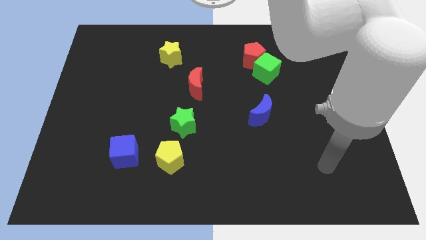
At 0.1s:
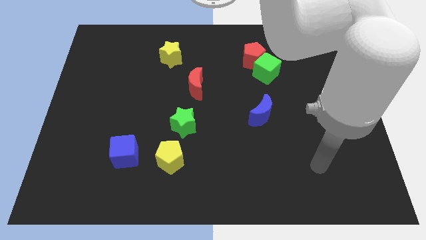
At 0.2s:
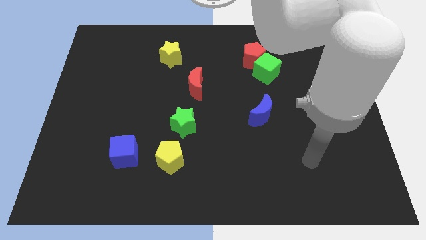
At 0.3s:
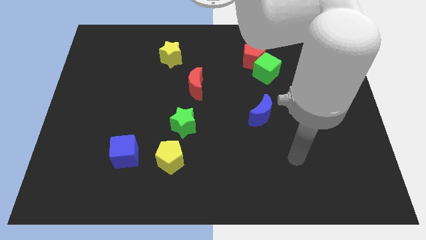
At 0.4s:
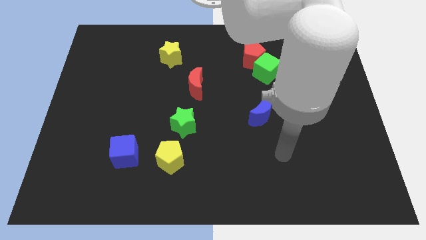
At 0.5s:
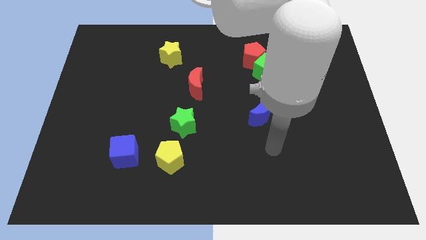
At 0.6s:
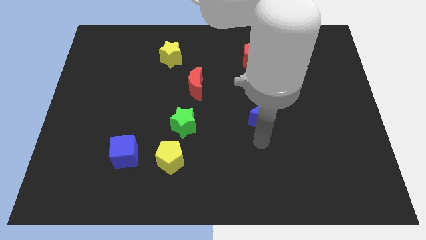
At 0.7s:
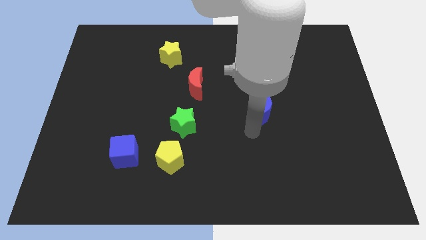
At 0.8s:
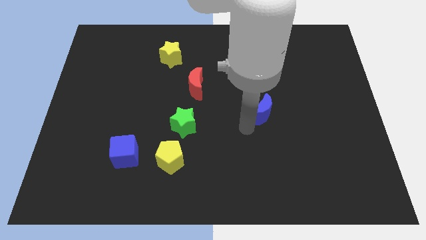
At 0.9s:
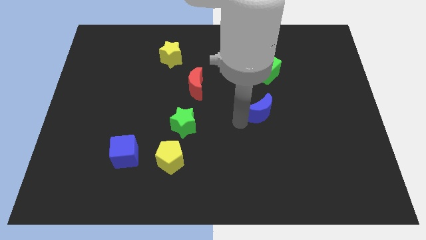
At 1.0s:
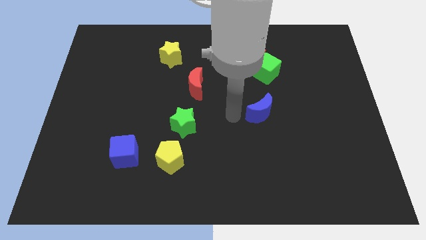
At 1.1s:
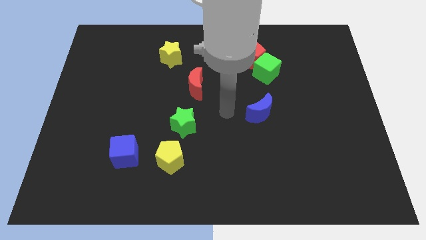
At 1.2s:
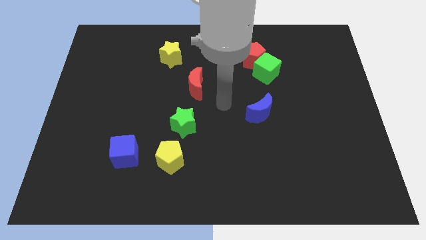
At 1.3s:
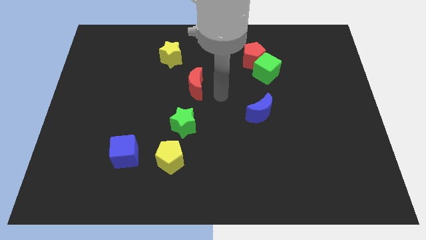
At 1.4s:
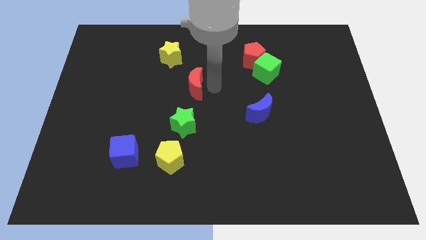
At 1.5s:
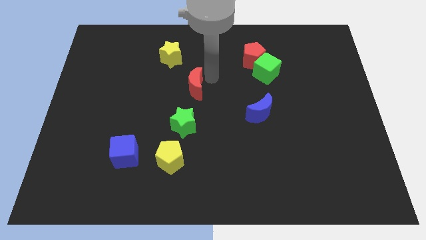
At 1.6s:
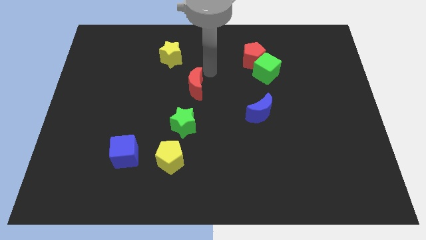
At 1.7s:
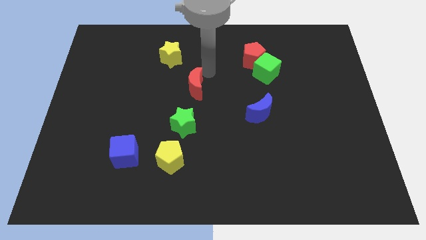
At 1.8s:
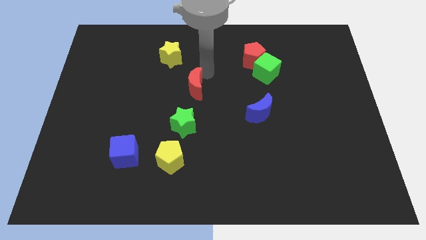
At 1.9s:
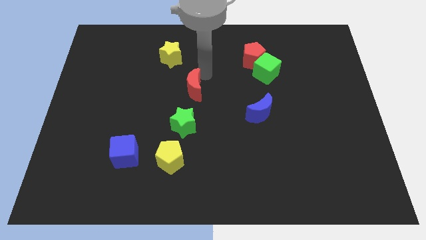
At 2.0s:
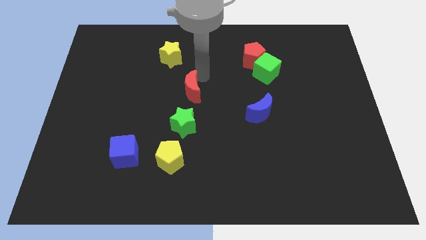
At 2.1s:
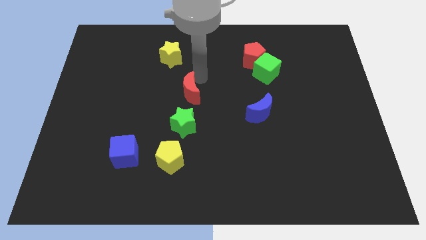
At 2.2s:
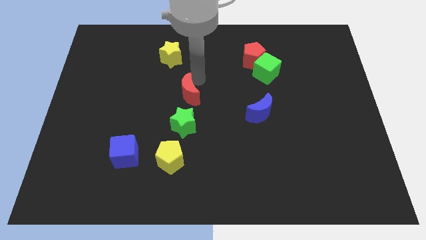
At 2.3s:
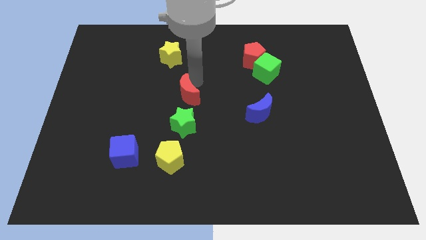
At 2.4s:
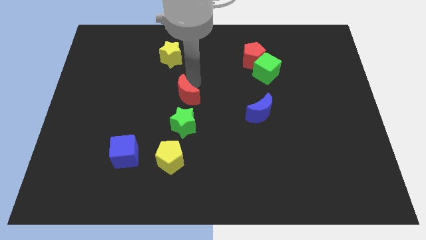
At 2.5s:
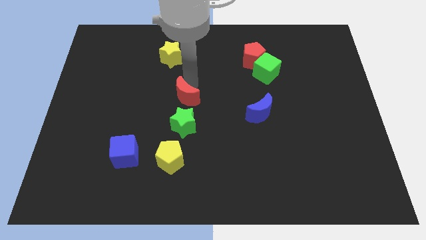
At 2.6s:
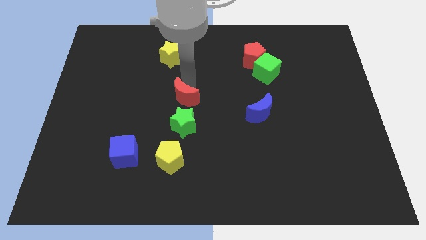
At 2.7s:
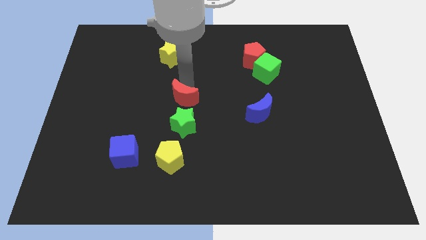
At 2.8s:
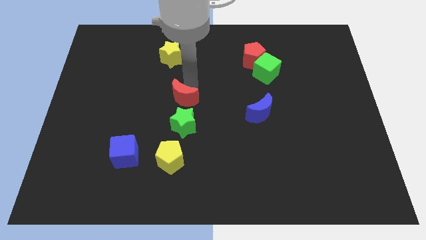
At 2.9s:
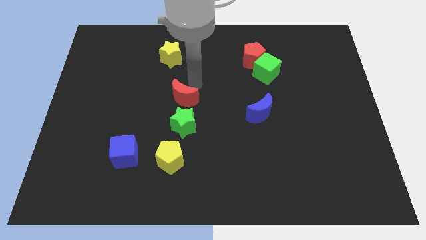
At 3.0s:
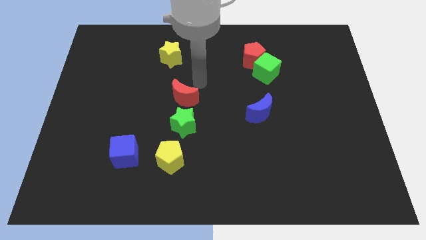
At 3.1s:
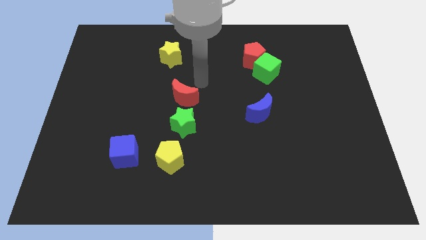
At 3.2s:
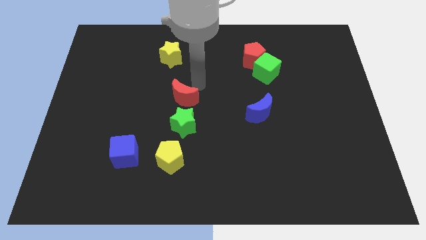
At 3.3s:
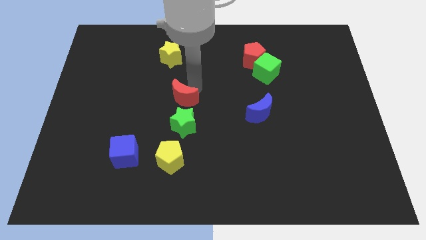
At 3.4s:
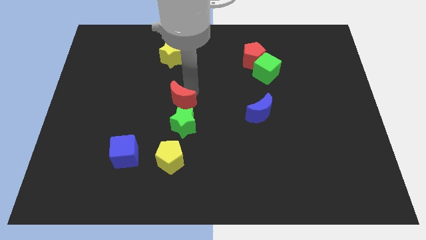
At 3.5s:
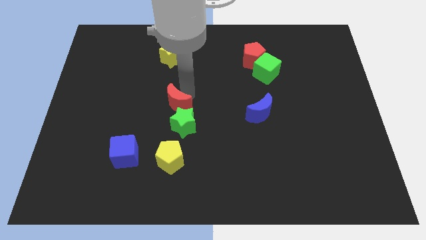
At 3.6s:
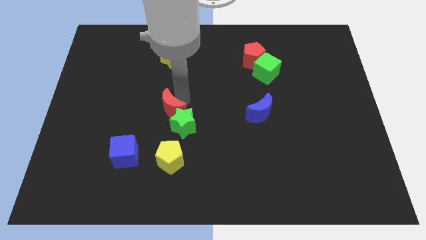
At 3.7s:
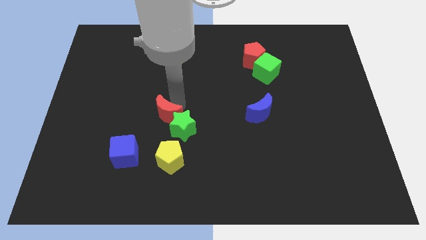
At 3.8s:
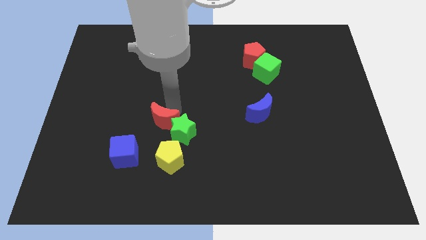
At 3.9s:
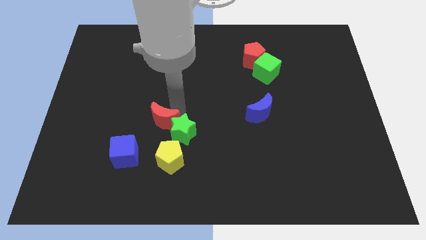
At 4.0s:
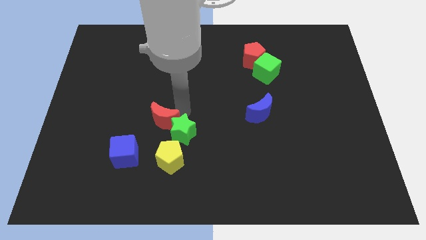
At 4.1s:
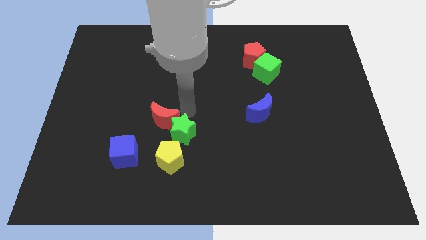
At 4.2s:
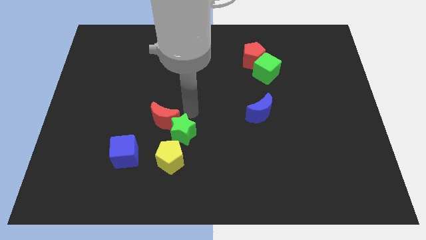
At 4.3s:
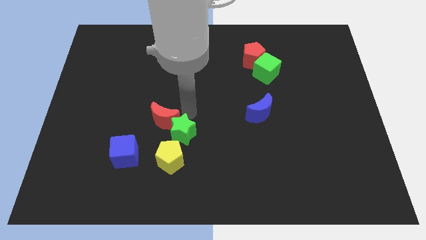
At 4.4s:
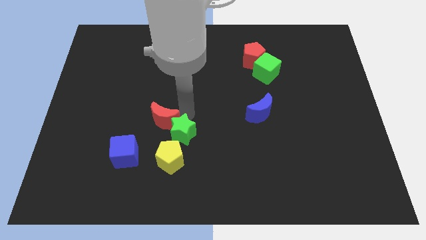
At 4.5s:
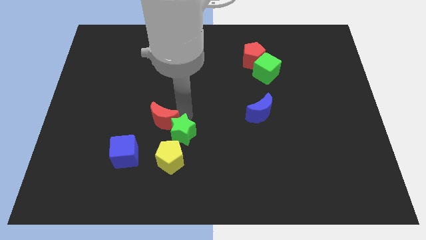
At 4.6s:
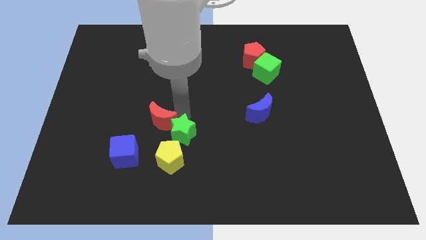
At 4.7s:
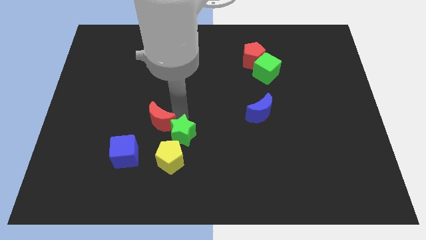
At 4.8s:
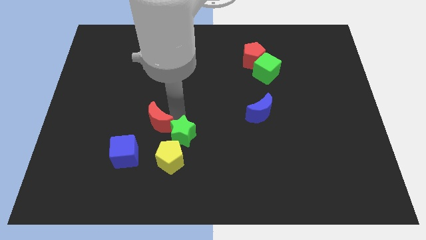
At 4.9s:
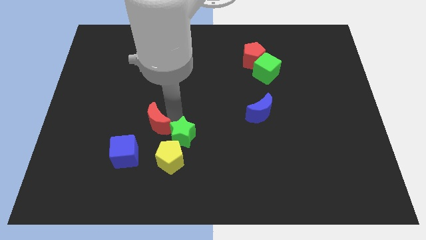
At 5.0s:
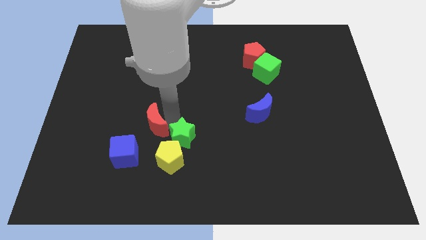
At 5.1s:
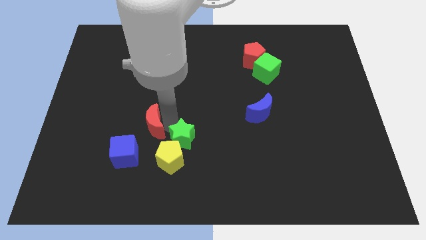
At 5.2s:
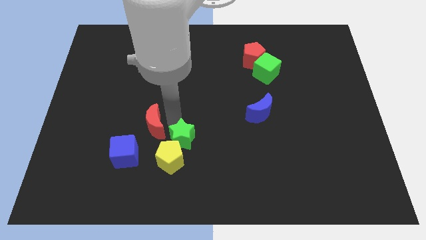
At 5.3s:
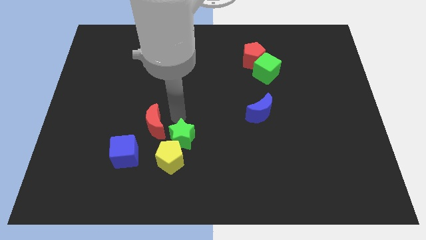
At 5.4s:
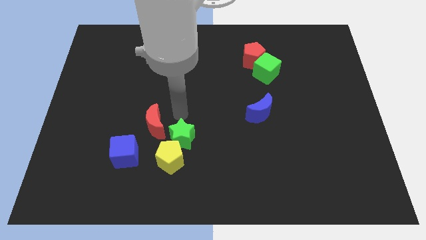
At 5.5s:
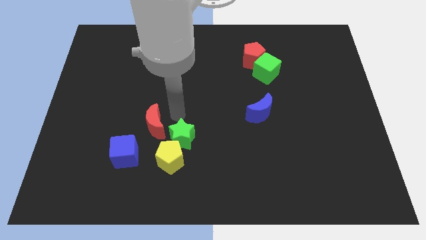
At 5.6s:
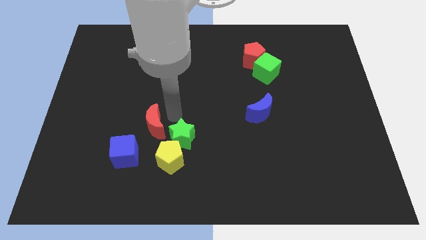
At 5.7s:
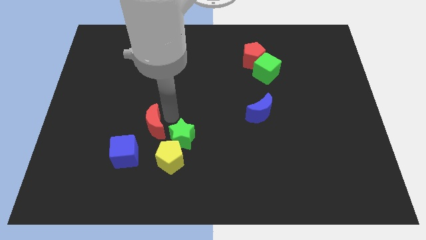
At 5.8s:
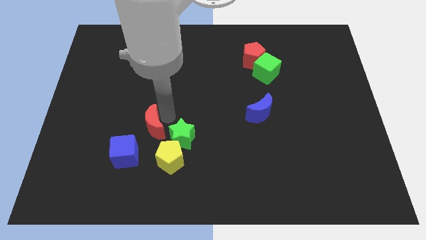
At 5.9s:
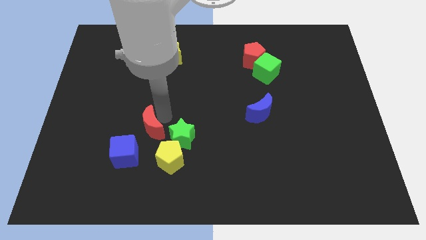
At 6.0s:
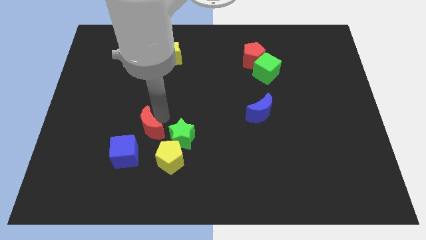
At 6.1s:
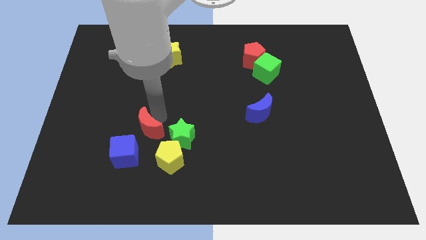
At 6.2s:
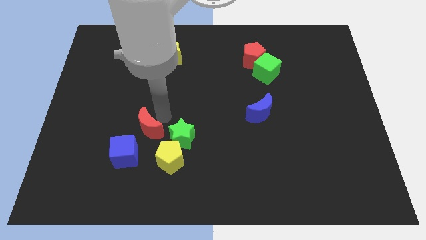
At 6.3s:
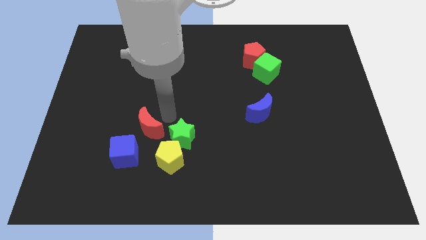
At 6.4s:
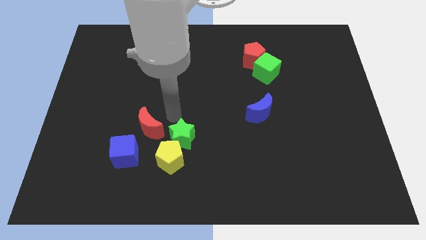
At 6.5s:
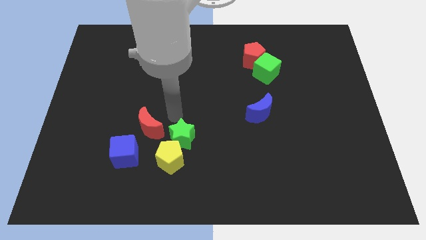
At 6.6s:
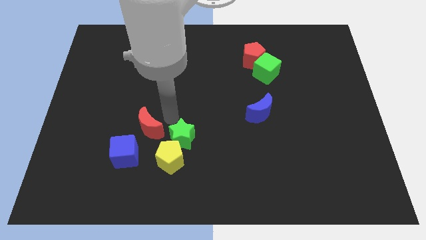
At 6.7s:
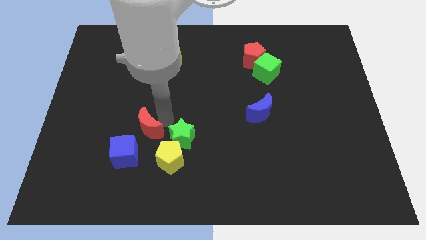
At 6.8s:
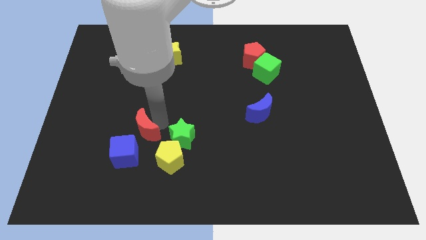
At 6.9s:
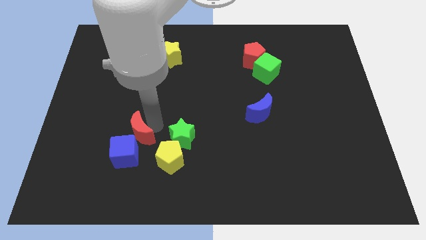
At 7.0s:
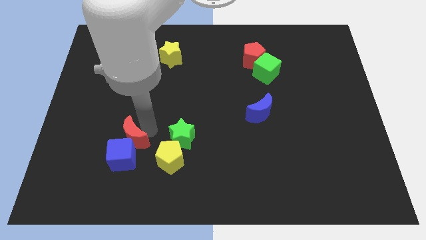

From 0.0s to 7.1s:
slide the red moon downwards and left

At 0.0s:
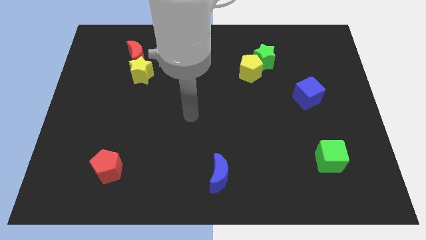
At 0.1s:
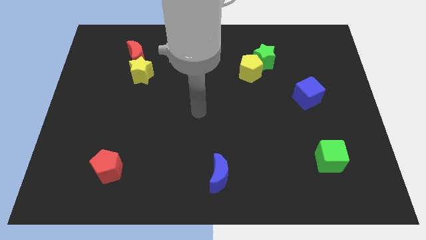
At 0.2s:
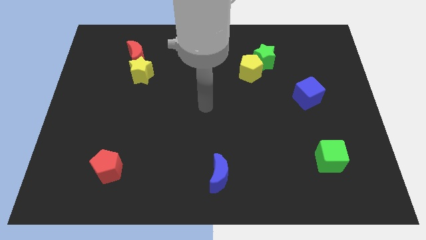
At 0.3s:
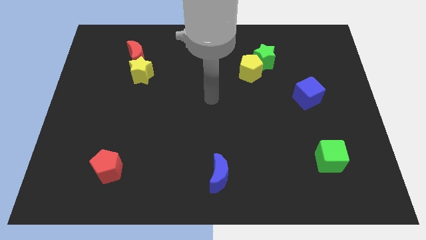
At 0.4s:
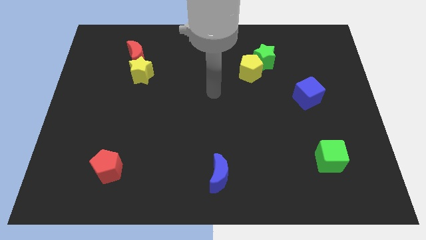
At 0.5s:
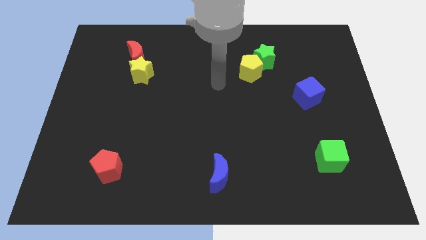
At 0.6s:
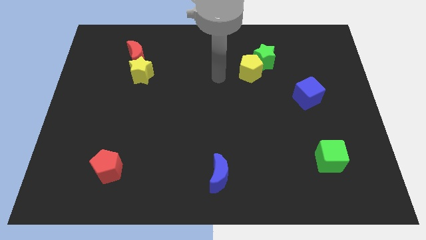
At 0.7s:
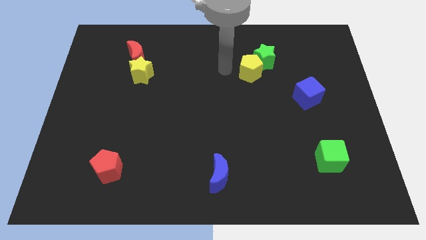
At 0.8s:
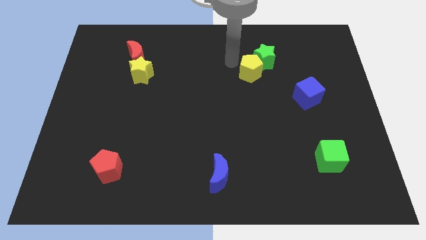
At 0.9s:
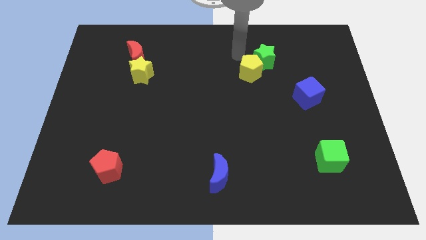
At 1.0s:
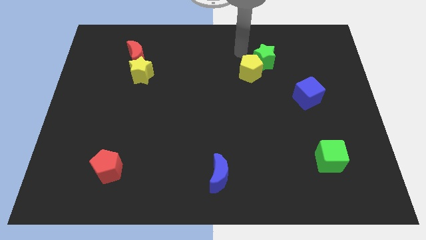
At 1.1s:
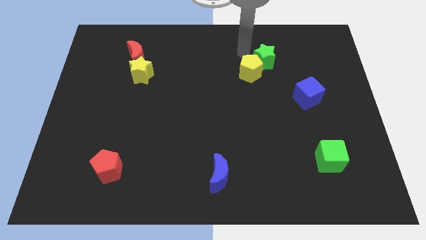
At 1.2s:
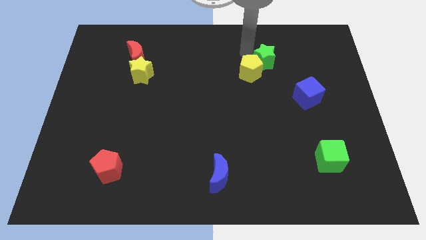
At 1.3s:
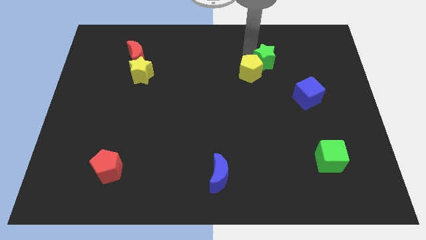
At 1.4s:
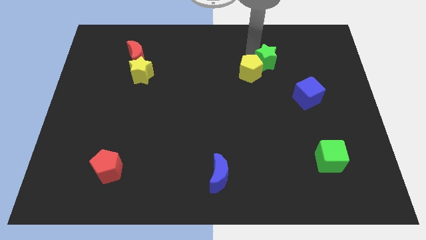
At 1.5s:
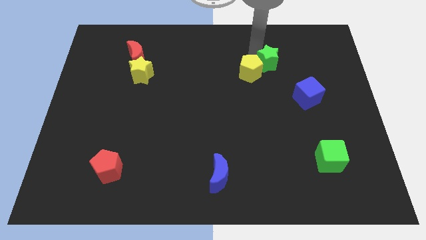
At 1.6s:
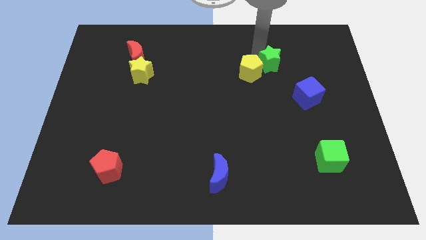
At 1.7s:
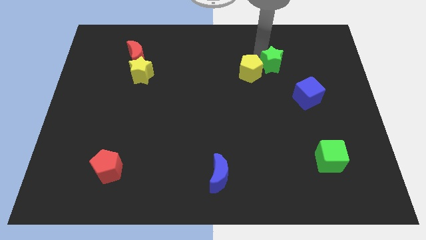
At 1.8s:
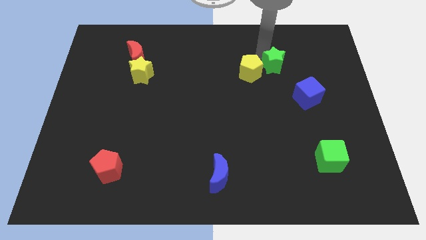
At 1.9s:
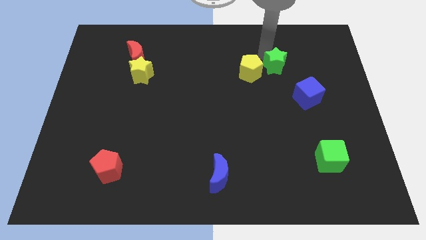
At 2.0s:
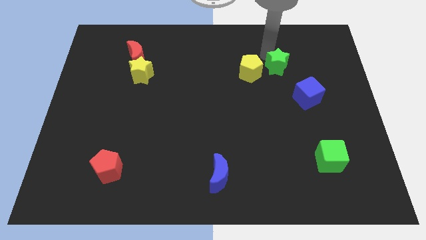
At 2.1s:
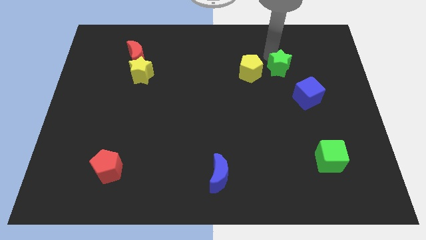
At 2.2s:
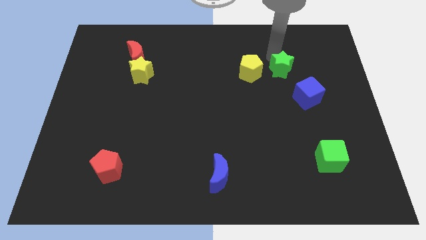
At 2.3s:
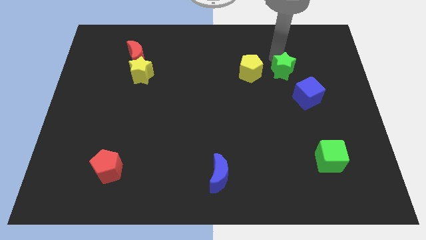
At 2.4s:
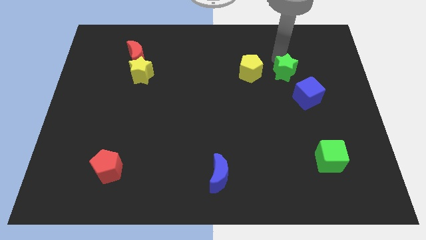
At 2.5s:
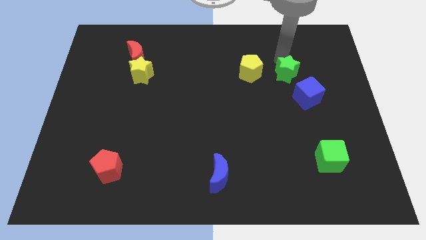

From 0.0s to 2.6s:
slide the green star somewhat diagonally down and to the right
